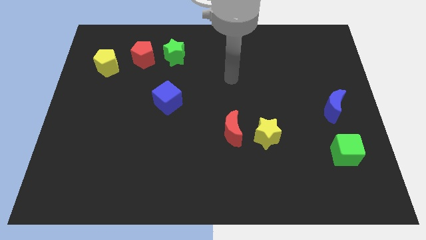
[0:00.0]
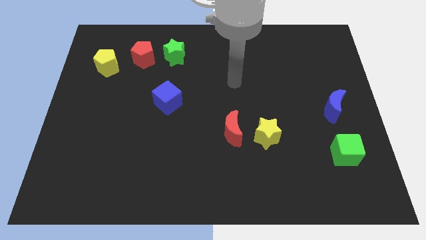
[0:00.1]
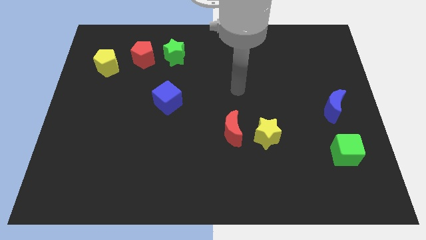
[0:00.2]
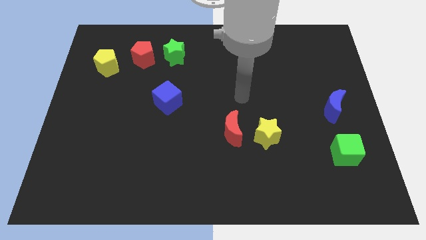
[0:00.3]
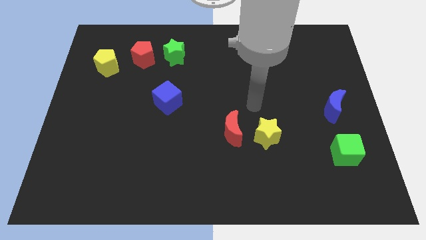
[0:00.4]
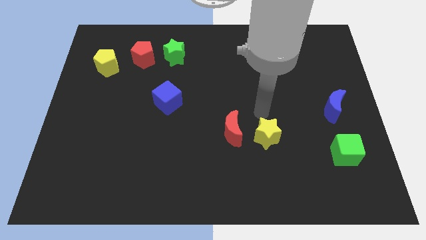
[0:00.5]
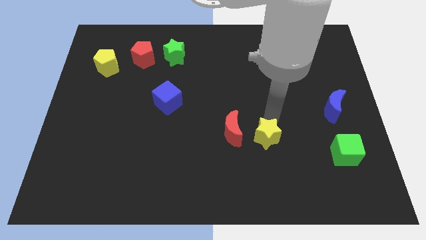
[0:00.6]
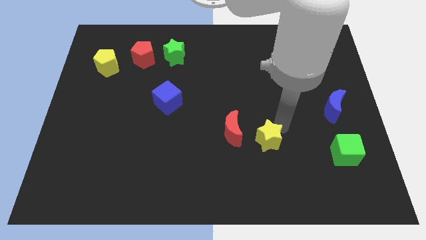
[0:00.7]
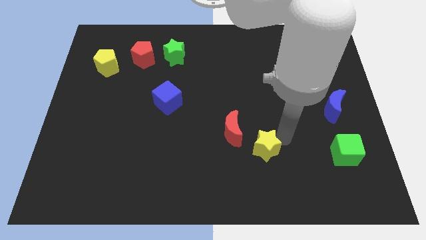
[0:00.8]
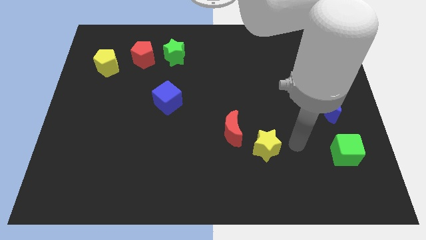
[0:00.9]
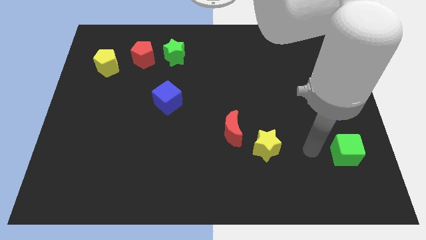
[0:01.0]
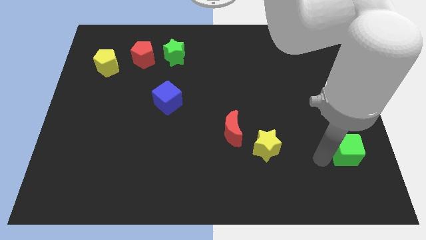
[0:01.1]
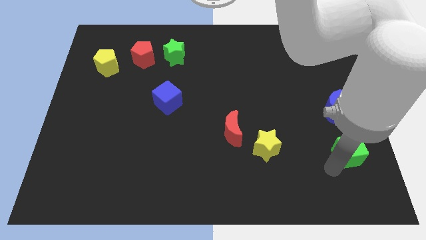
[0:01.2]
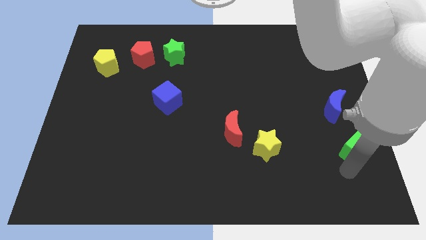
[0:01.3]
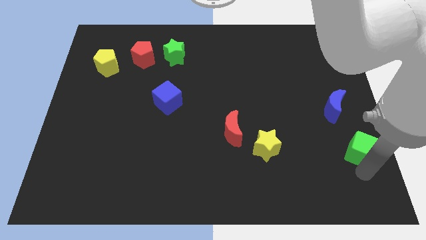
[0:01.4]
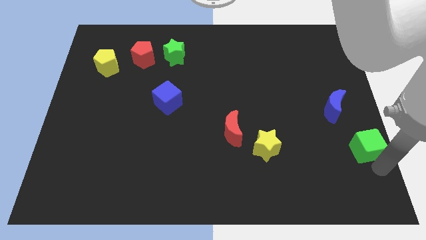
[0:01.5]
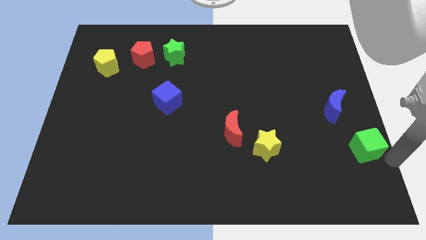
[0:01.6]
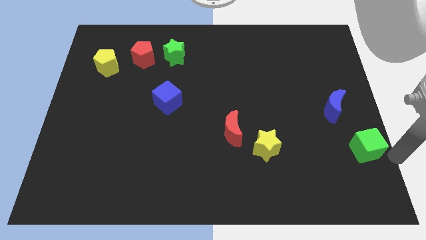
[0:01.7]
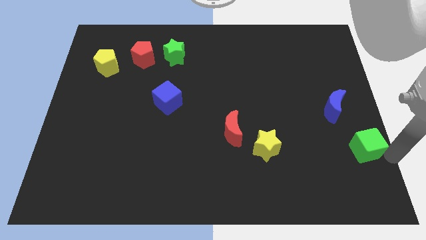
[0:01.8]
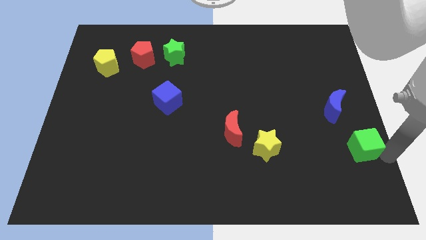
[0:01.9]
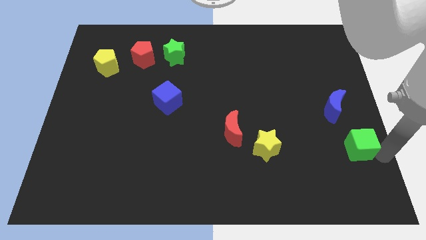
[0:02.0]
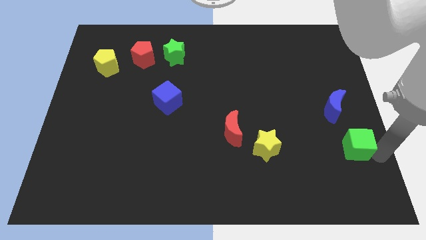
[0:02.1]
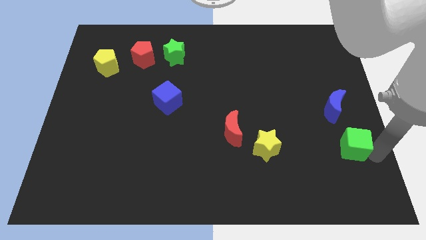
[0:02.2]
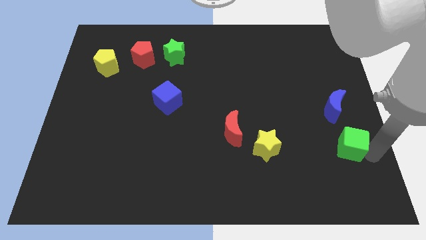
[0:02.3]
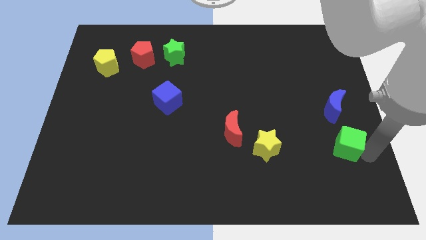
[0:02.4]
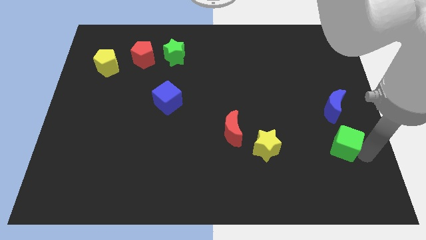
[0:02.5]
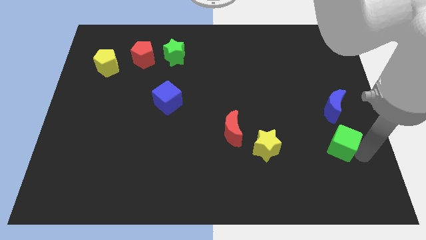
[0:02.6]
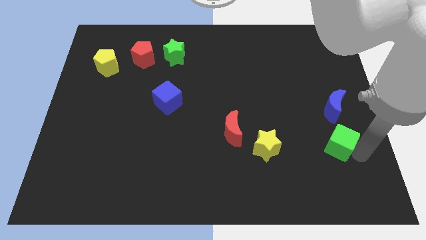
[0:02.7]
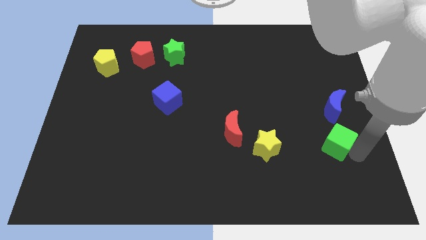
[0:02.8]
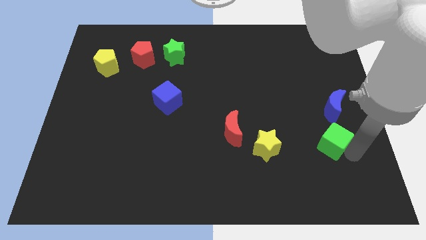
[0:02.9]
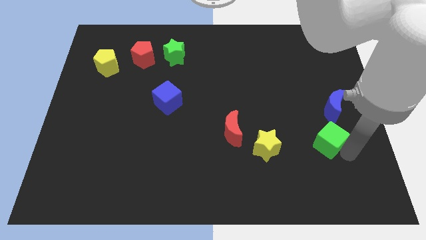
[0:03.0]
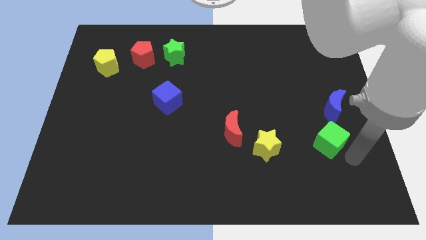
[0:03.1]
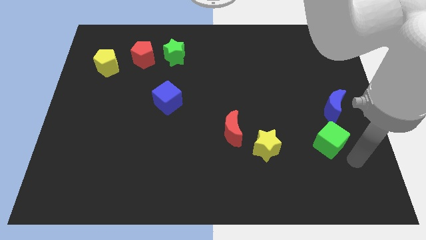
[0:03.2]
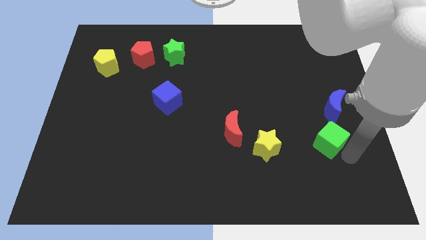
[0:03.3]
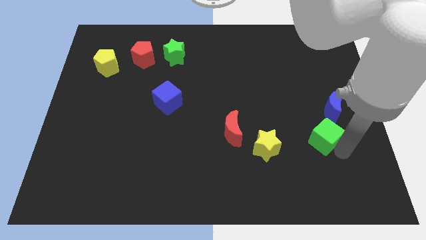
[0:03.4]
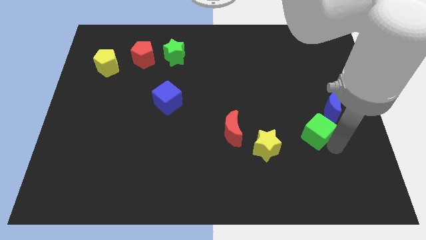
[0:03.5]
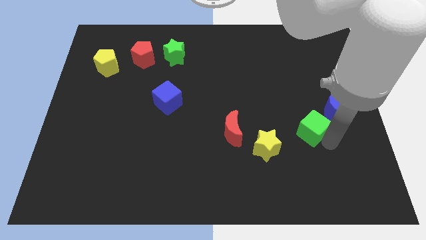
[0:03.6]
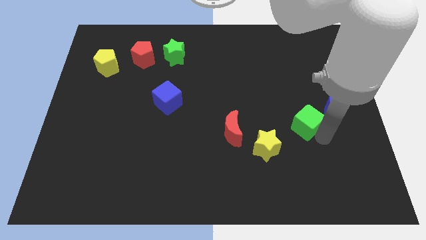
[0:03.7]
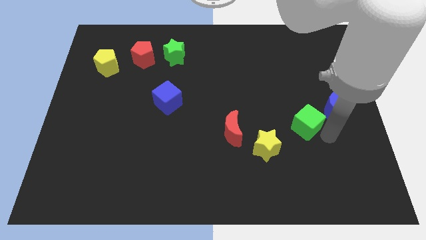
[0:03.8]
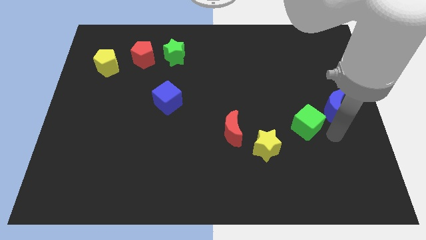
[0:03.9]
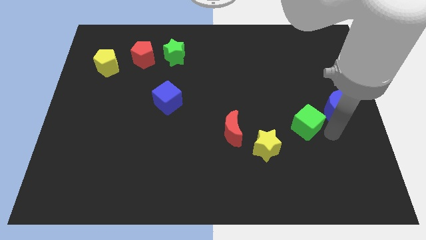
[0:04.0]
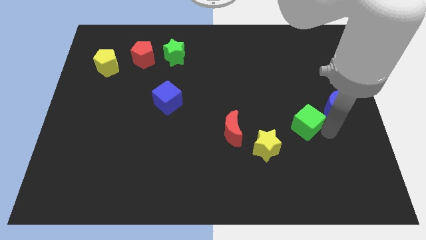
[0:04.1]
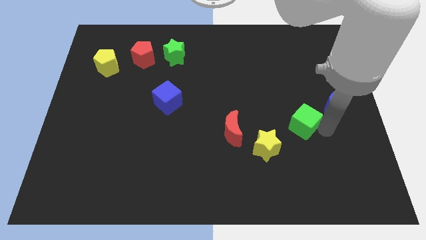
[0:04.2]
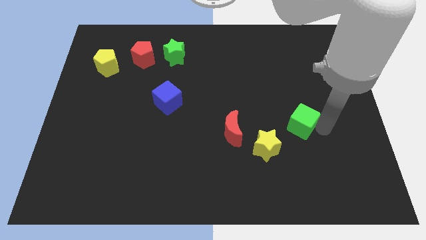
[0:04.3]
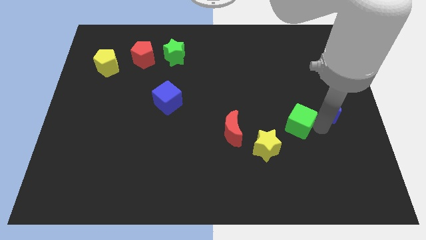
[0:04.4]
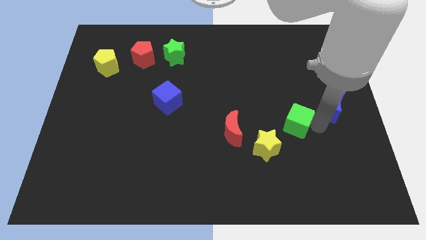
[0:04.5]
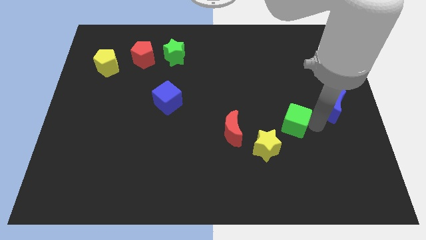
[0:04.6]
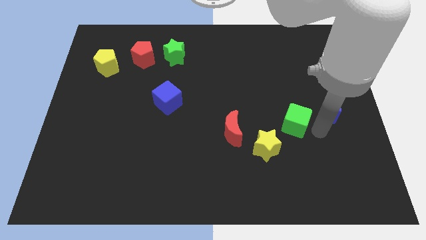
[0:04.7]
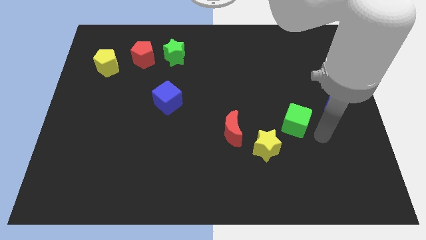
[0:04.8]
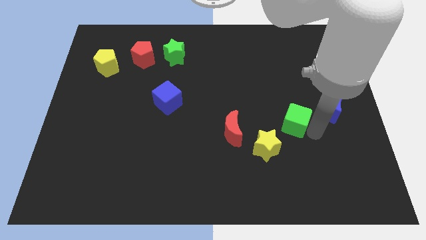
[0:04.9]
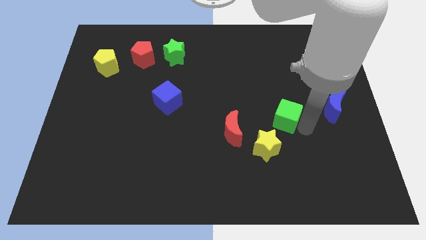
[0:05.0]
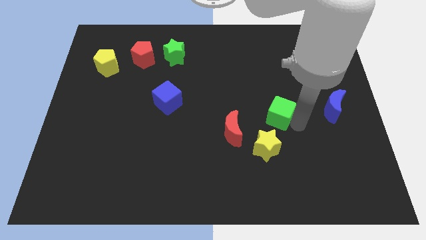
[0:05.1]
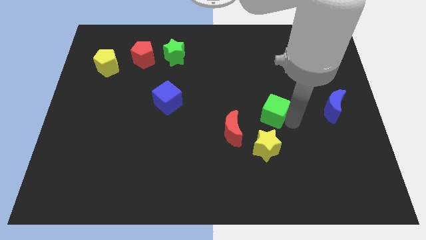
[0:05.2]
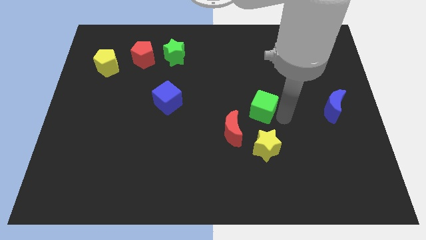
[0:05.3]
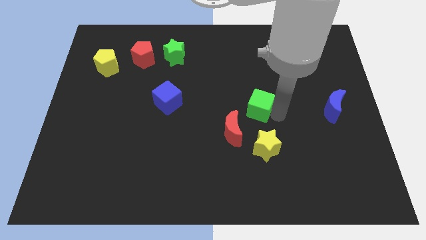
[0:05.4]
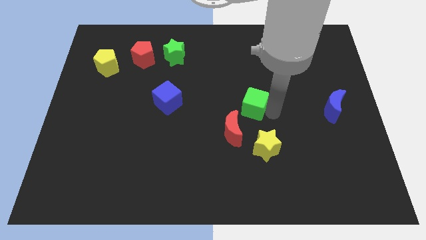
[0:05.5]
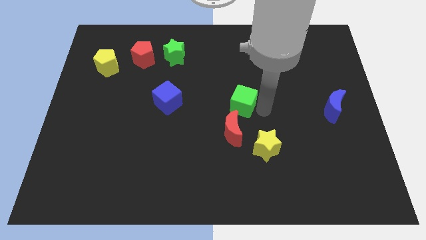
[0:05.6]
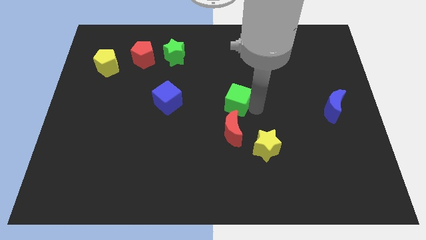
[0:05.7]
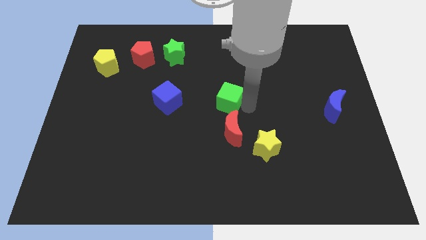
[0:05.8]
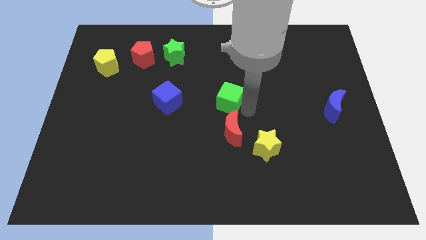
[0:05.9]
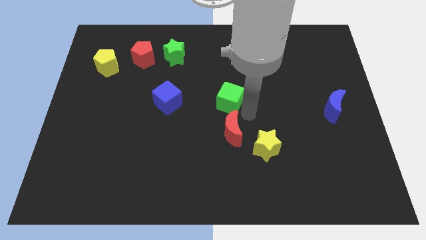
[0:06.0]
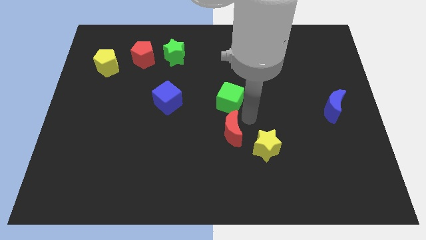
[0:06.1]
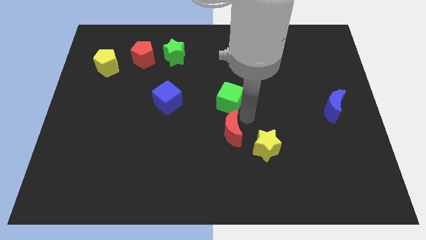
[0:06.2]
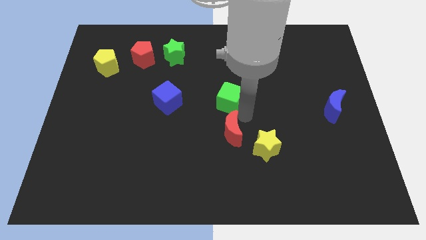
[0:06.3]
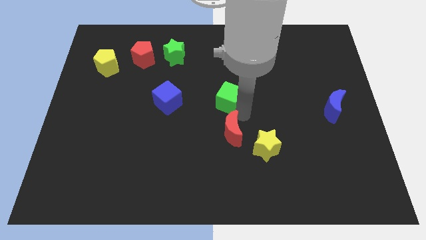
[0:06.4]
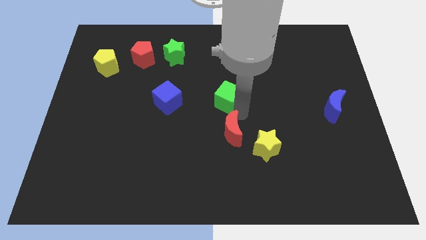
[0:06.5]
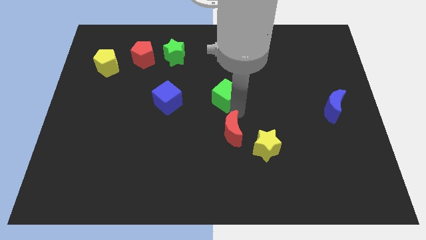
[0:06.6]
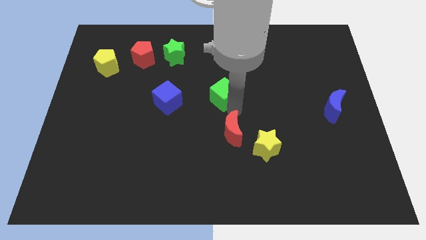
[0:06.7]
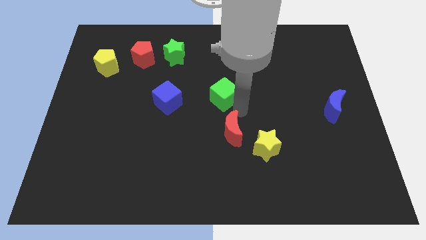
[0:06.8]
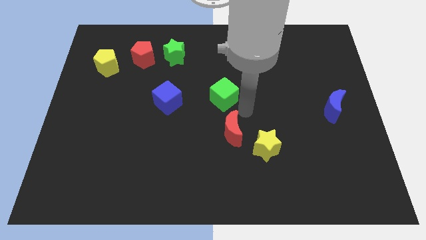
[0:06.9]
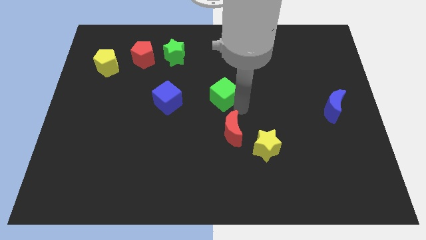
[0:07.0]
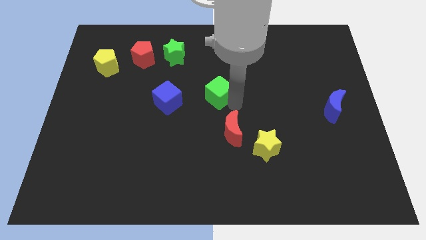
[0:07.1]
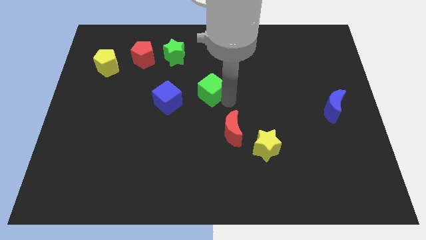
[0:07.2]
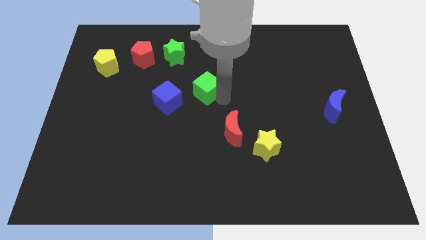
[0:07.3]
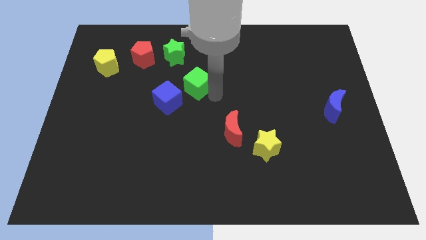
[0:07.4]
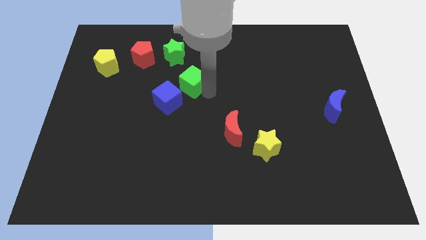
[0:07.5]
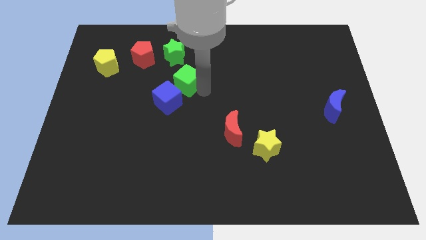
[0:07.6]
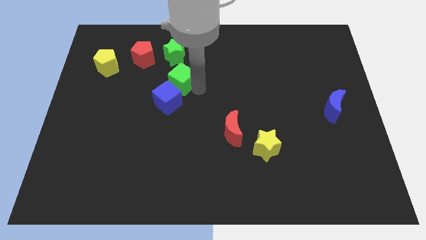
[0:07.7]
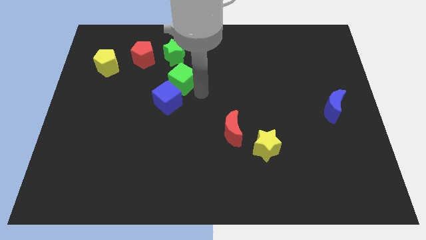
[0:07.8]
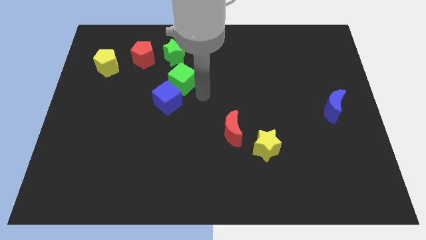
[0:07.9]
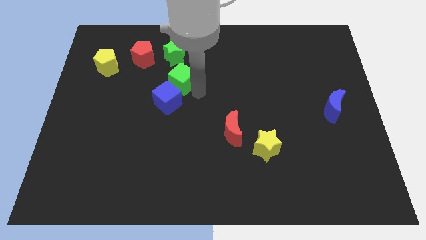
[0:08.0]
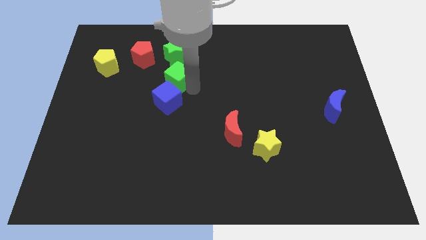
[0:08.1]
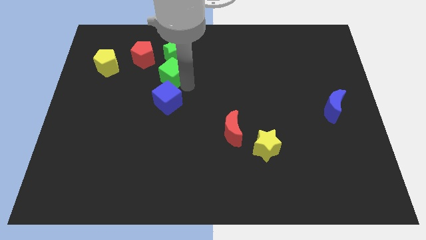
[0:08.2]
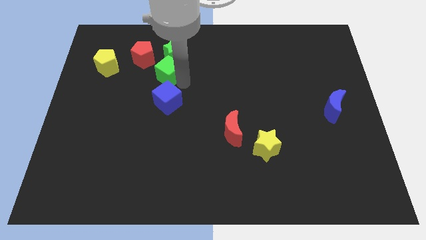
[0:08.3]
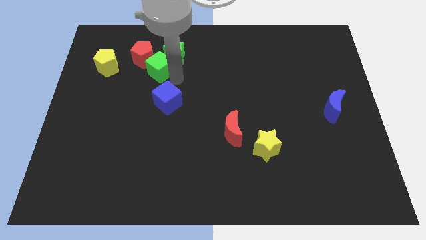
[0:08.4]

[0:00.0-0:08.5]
slide the green cube towards the red pentagon
